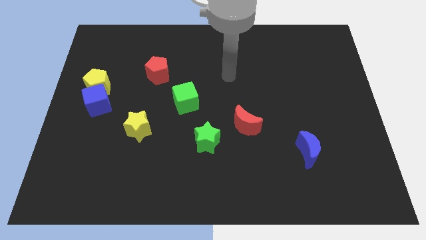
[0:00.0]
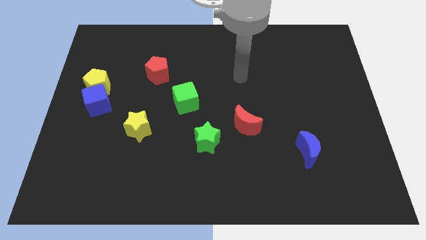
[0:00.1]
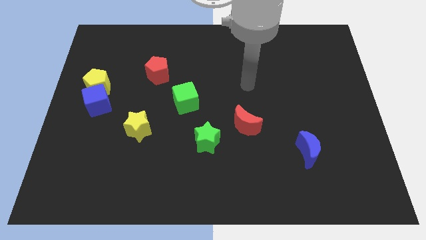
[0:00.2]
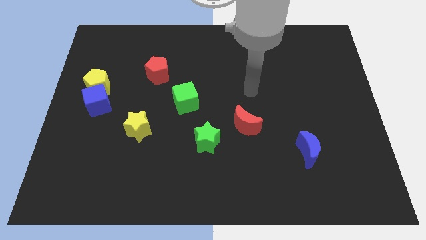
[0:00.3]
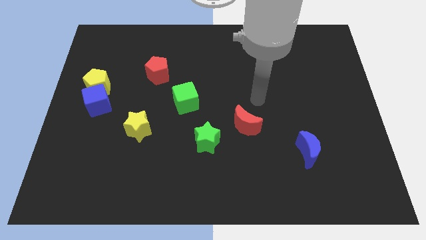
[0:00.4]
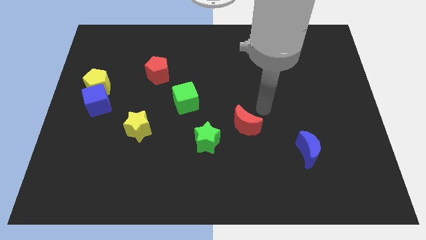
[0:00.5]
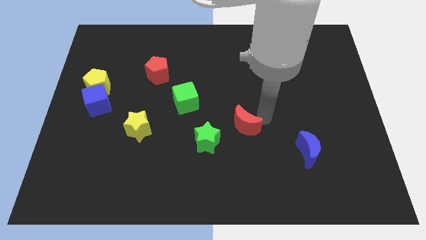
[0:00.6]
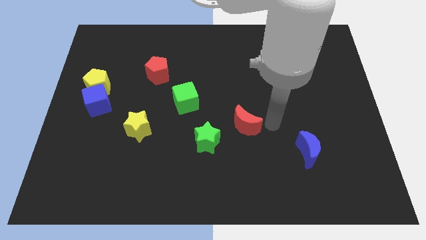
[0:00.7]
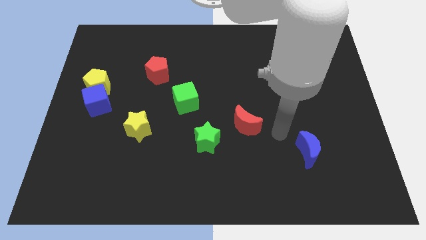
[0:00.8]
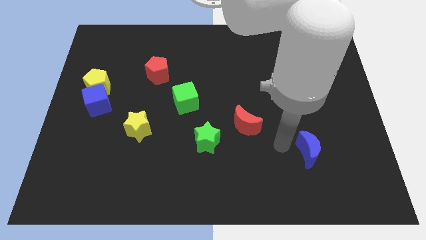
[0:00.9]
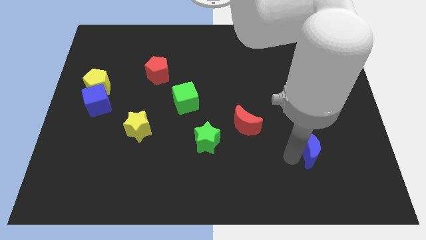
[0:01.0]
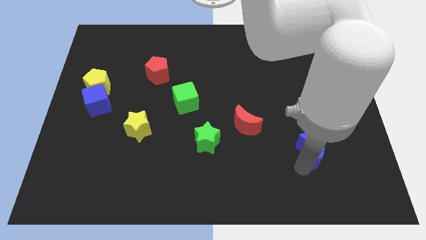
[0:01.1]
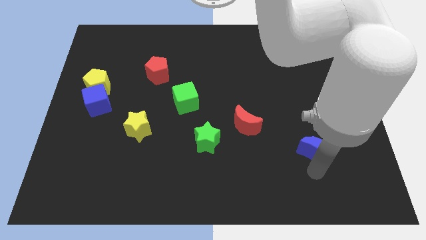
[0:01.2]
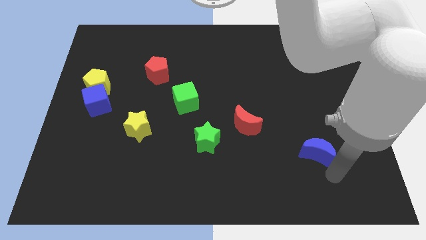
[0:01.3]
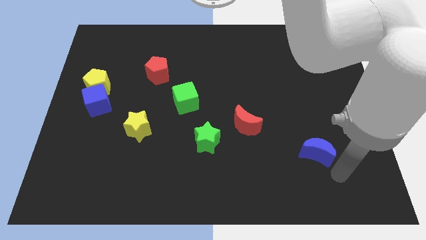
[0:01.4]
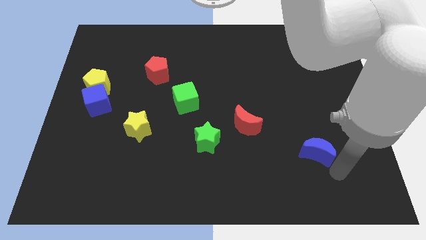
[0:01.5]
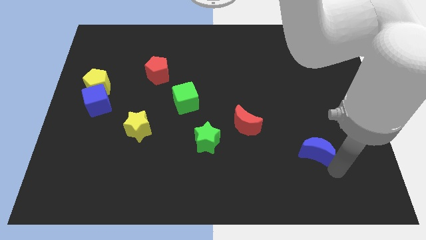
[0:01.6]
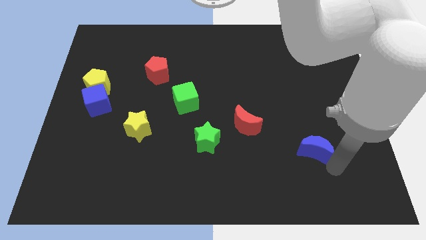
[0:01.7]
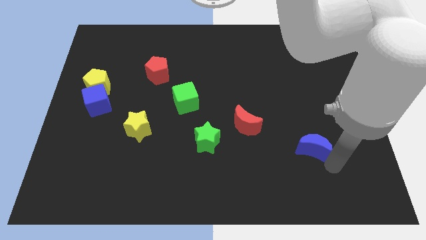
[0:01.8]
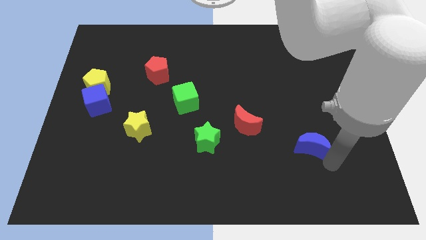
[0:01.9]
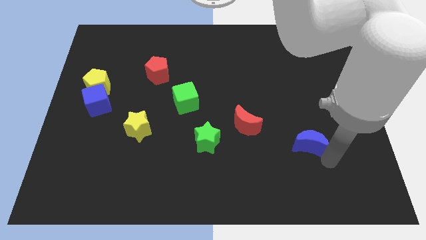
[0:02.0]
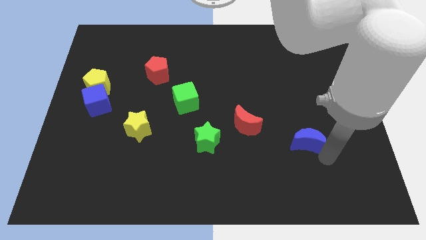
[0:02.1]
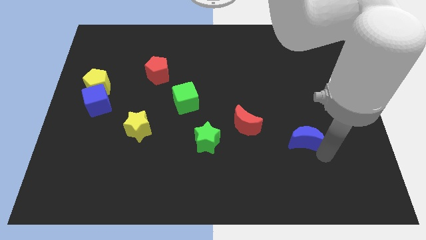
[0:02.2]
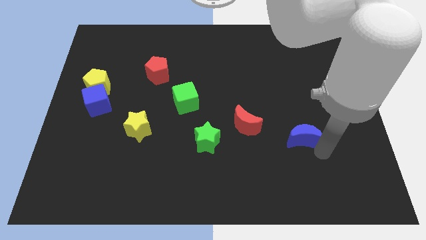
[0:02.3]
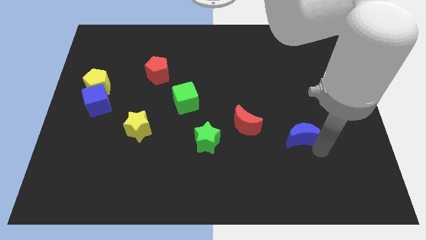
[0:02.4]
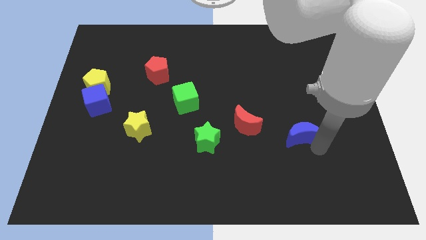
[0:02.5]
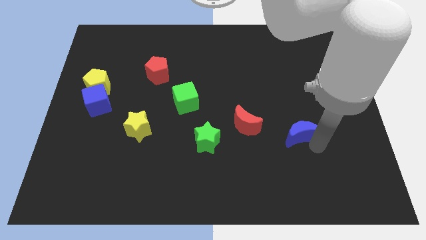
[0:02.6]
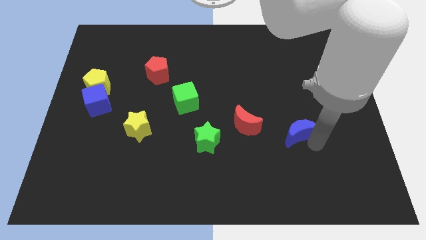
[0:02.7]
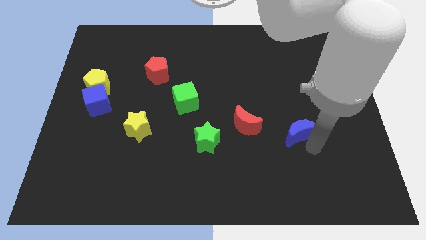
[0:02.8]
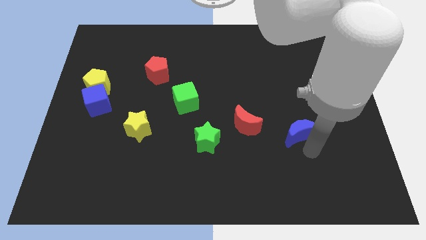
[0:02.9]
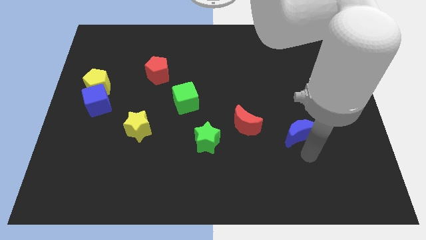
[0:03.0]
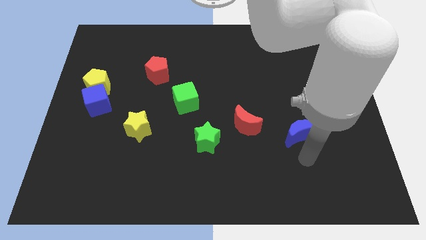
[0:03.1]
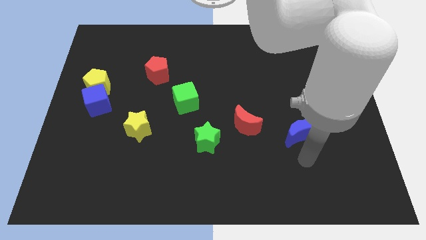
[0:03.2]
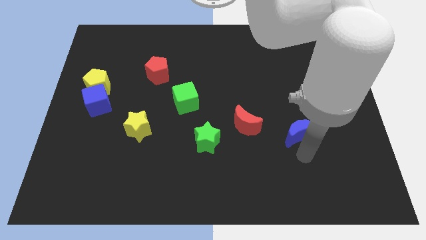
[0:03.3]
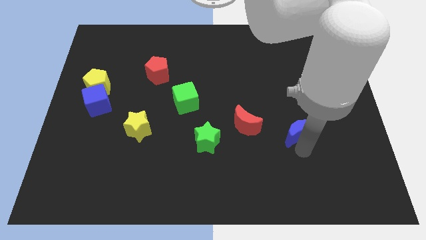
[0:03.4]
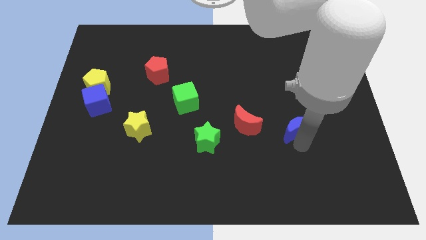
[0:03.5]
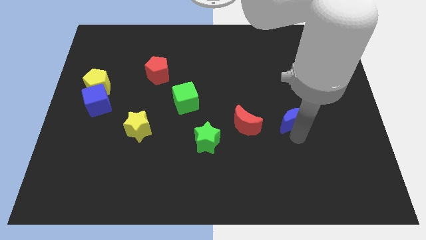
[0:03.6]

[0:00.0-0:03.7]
slightly slide the blue moon up

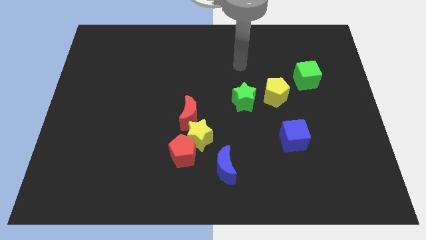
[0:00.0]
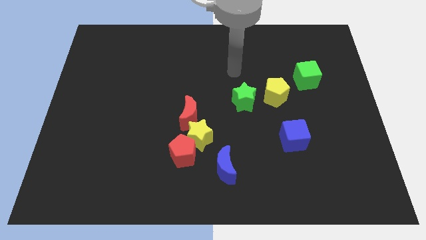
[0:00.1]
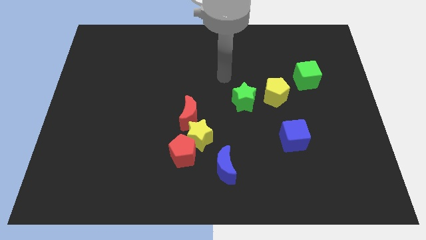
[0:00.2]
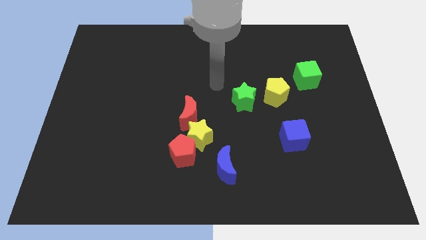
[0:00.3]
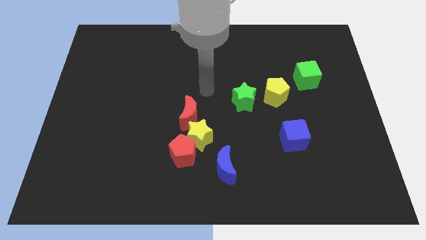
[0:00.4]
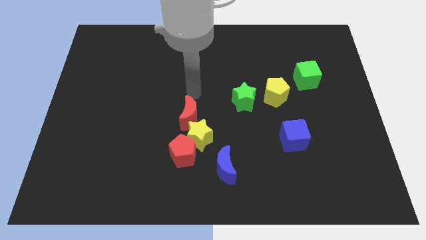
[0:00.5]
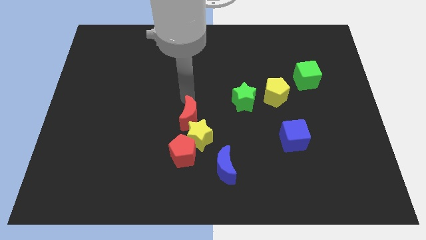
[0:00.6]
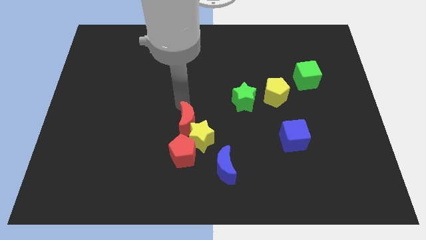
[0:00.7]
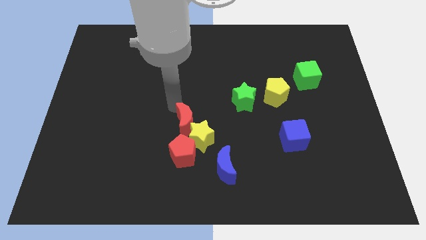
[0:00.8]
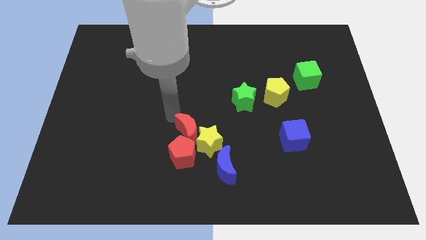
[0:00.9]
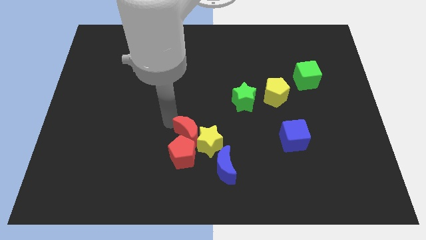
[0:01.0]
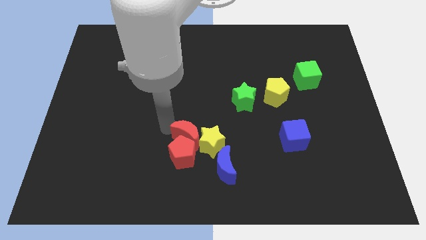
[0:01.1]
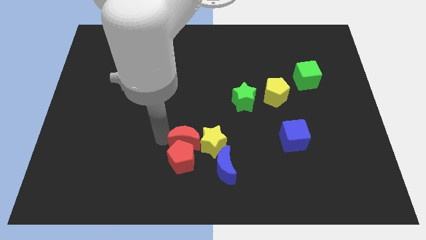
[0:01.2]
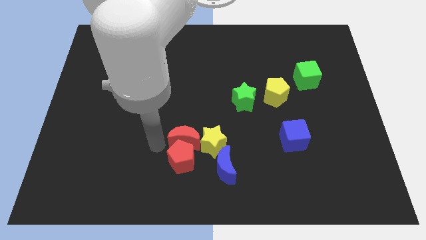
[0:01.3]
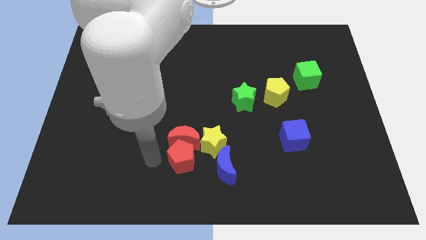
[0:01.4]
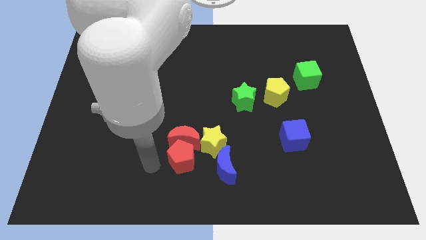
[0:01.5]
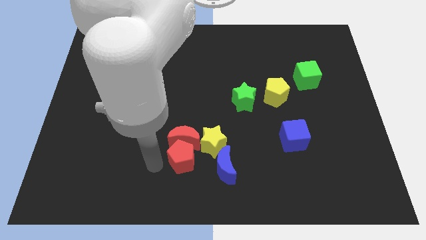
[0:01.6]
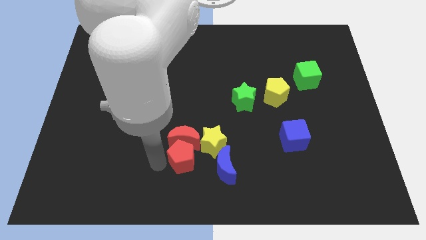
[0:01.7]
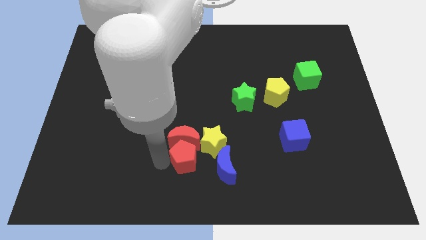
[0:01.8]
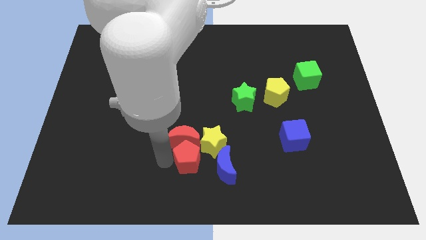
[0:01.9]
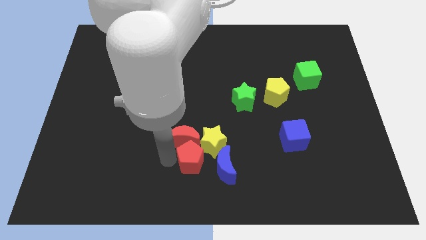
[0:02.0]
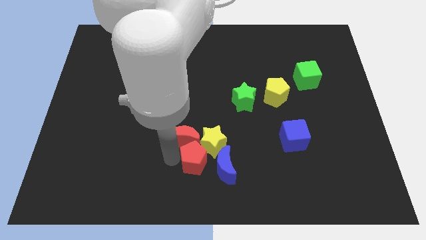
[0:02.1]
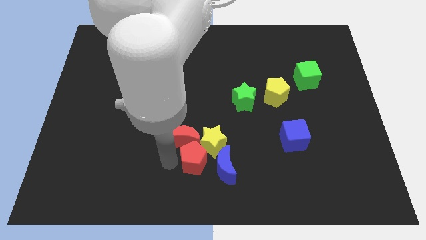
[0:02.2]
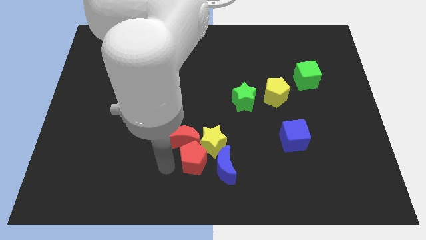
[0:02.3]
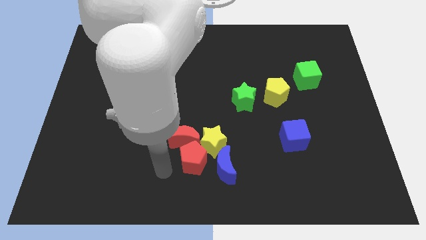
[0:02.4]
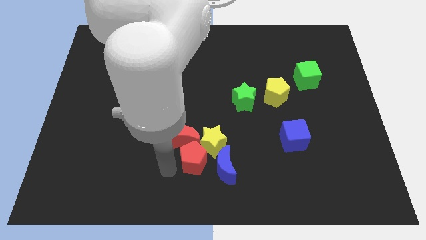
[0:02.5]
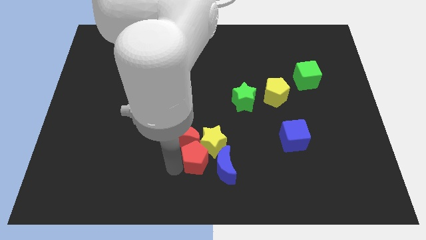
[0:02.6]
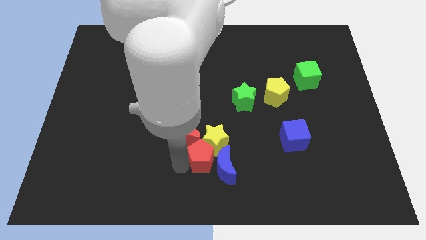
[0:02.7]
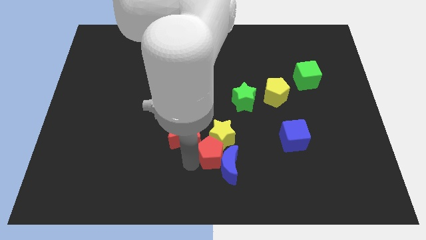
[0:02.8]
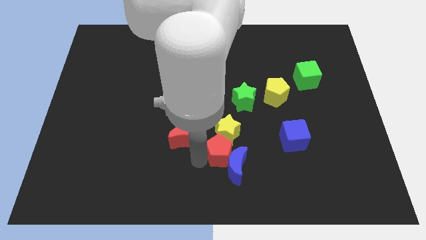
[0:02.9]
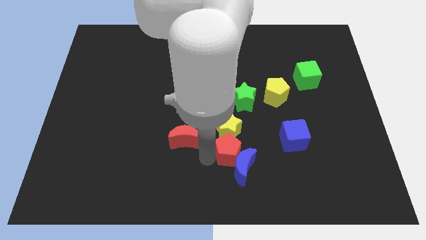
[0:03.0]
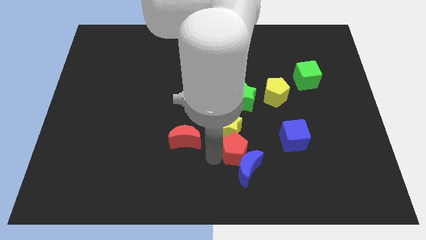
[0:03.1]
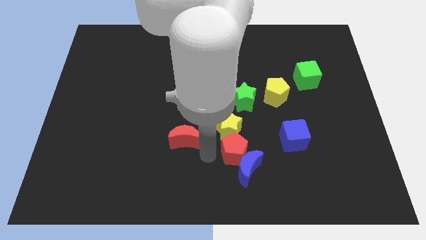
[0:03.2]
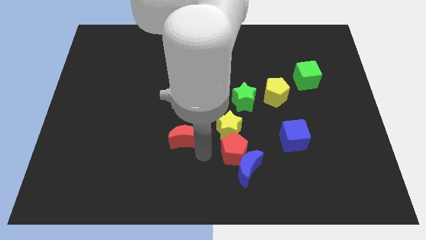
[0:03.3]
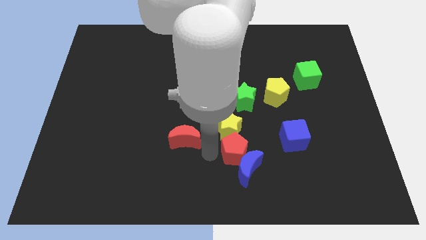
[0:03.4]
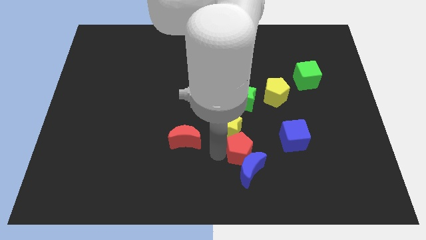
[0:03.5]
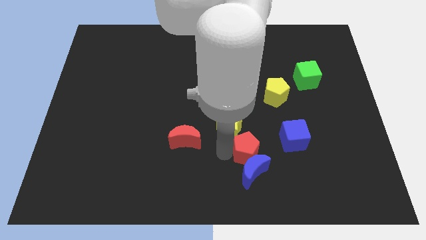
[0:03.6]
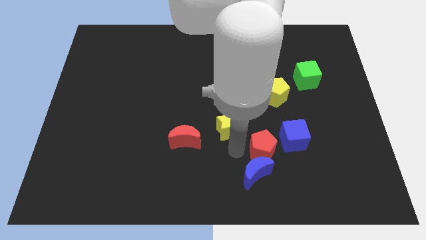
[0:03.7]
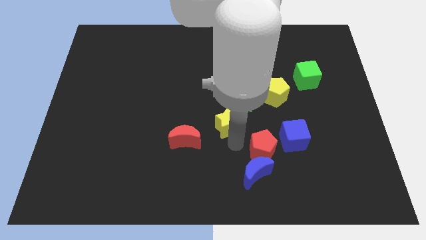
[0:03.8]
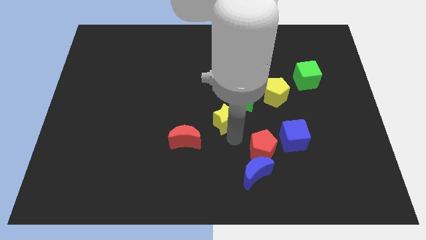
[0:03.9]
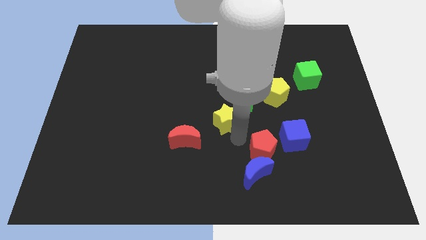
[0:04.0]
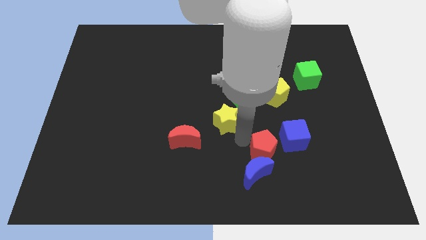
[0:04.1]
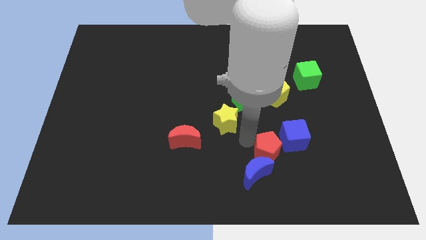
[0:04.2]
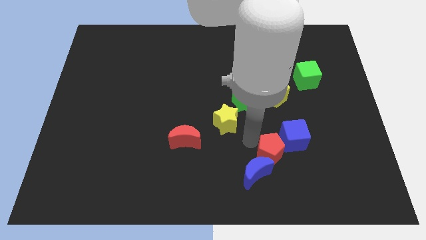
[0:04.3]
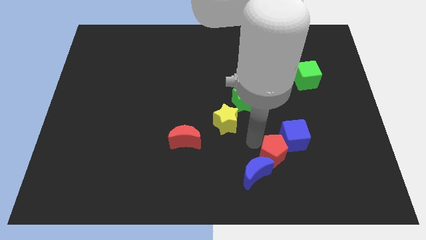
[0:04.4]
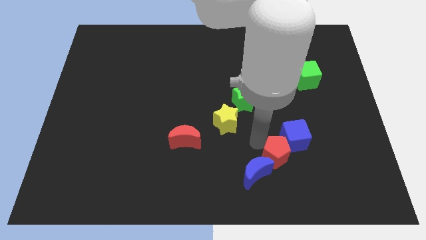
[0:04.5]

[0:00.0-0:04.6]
push the red pentagon to the right
